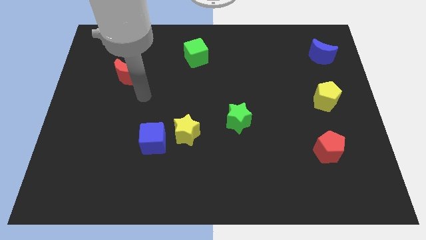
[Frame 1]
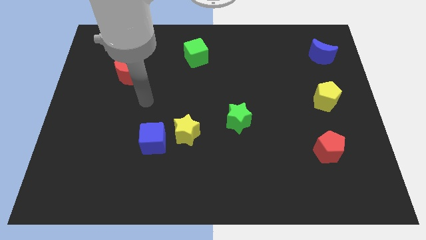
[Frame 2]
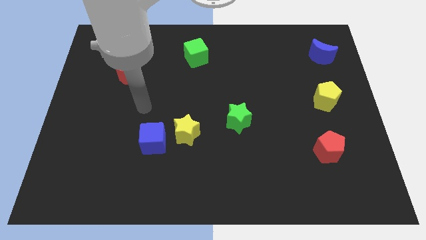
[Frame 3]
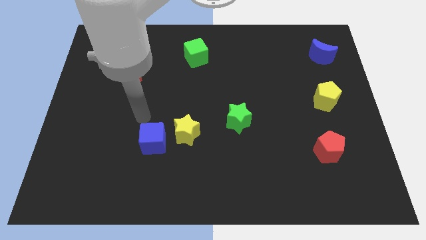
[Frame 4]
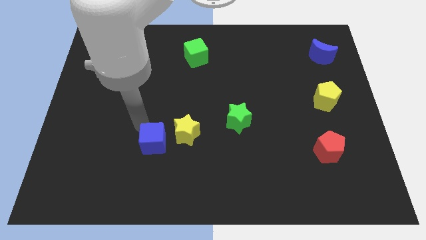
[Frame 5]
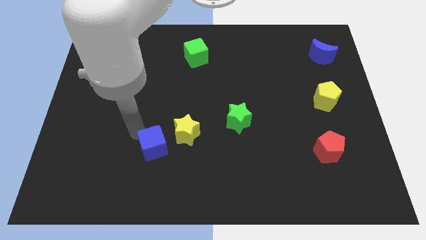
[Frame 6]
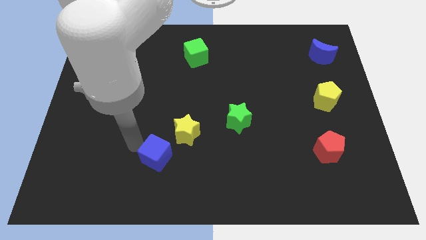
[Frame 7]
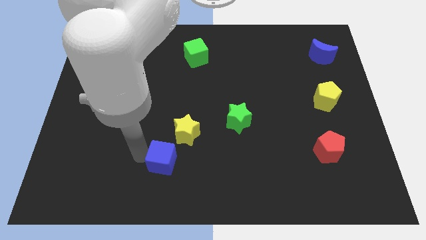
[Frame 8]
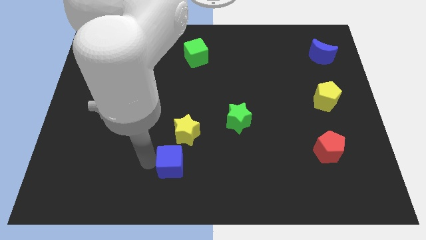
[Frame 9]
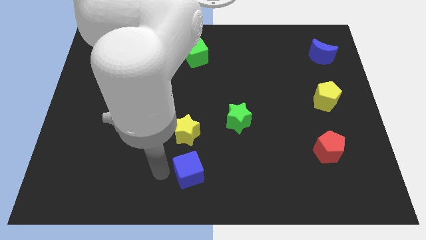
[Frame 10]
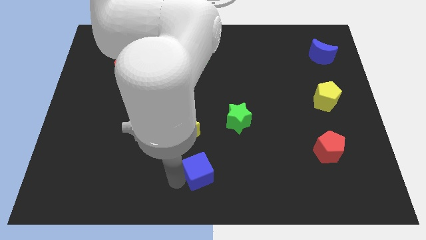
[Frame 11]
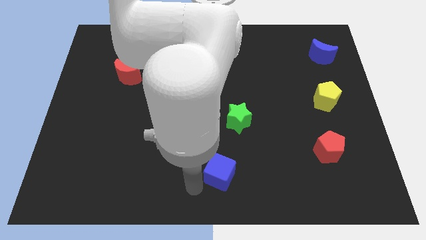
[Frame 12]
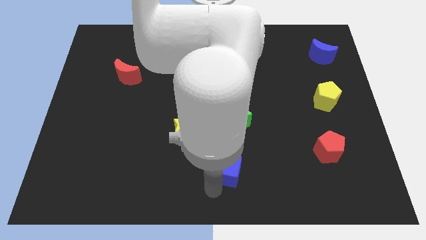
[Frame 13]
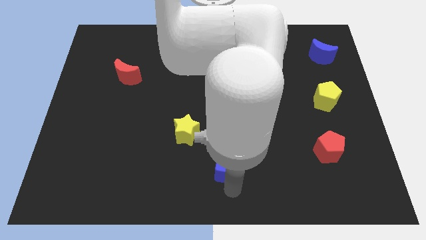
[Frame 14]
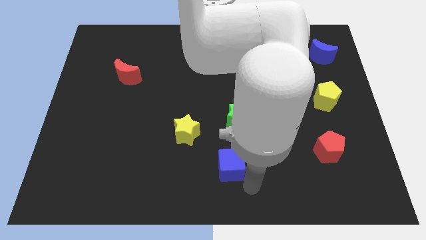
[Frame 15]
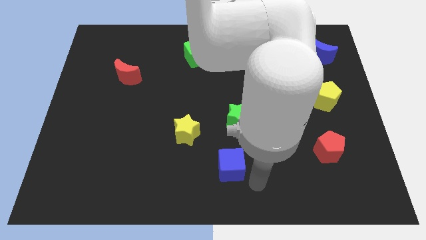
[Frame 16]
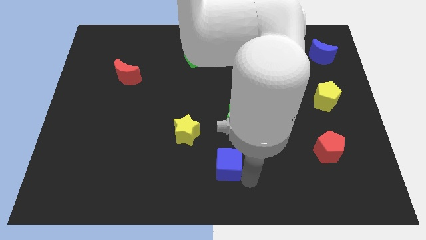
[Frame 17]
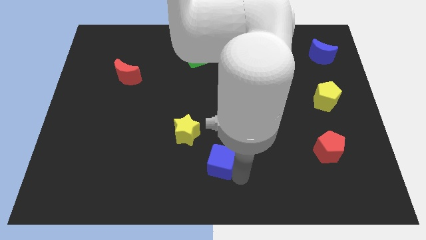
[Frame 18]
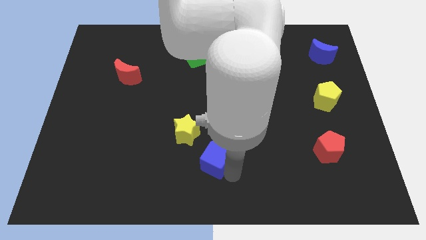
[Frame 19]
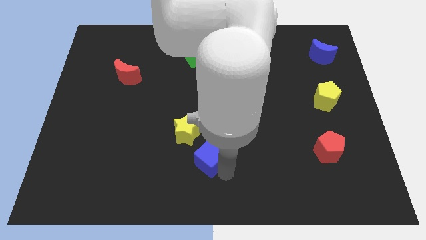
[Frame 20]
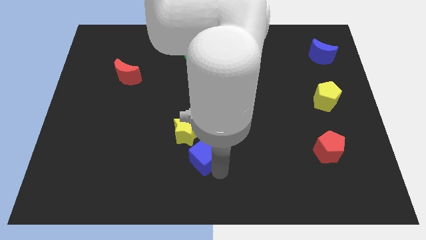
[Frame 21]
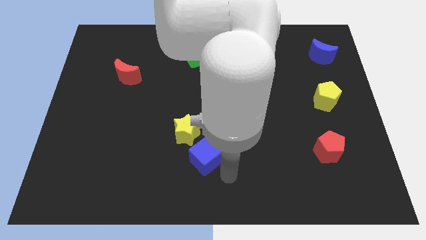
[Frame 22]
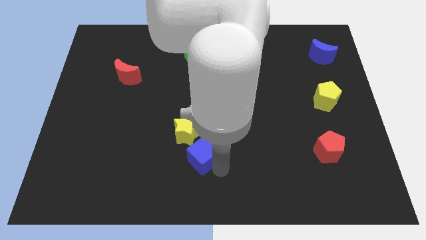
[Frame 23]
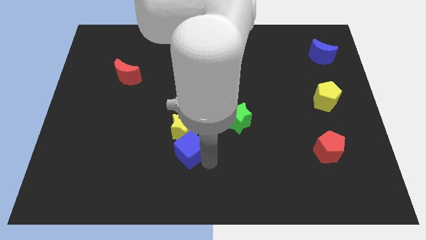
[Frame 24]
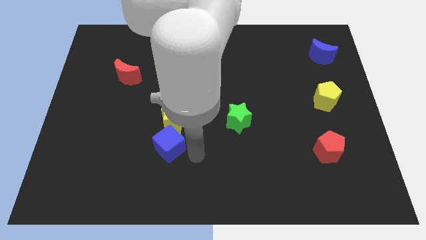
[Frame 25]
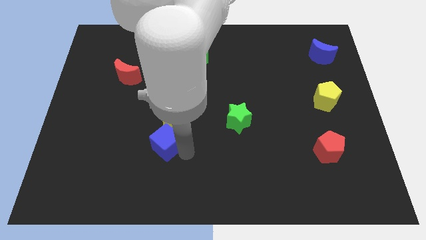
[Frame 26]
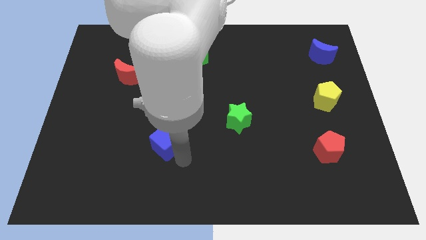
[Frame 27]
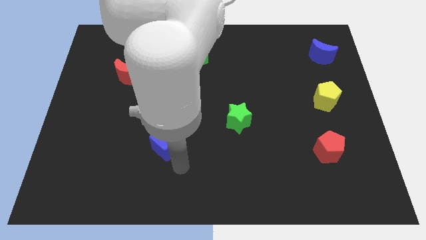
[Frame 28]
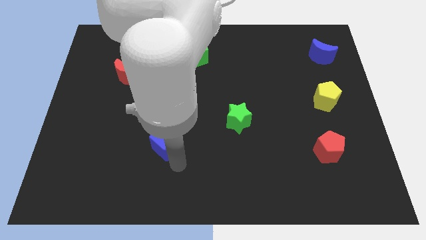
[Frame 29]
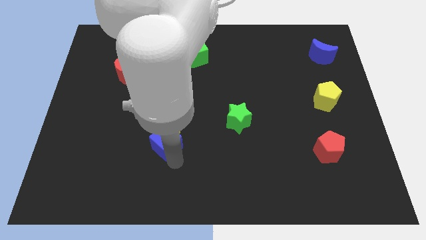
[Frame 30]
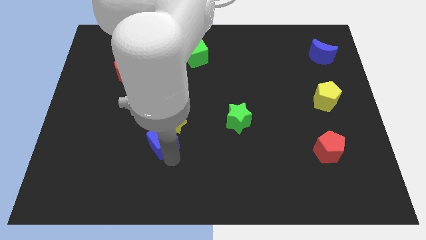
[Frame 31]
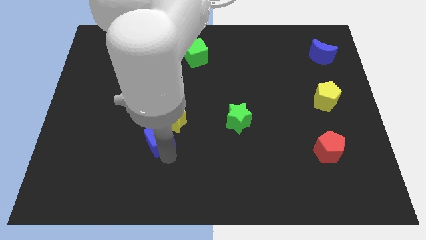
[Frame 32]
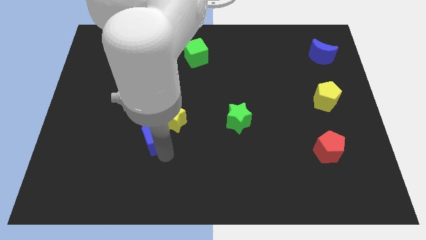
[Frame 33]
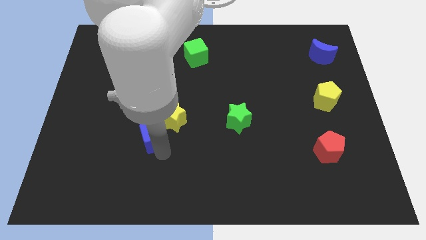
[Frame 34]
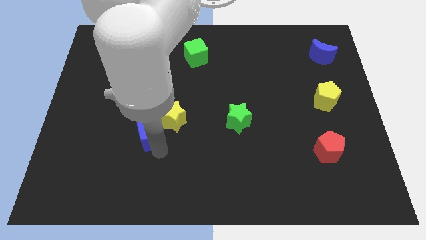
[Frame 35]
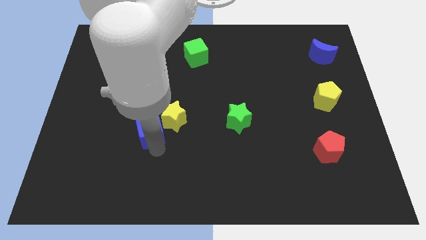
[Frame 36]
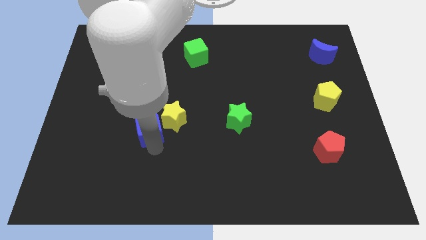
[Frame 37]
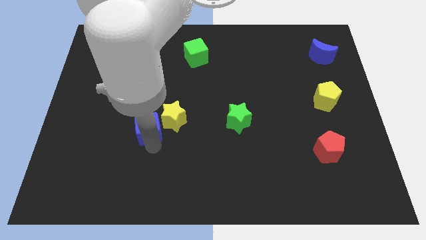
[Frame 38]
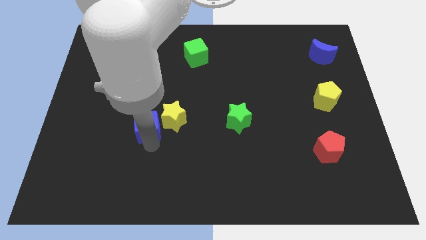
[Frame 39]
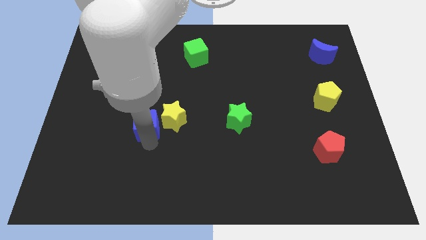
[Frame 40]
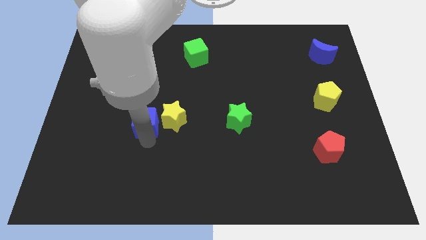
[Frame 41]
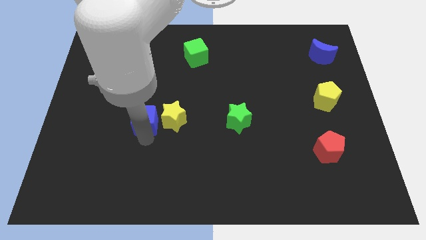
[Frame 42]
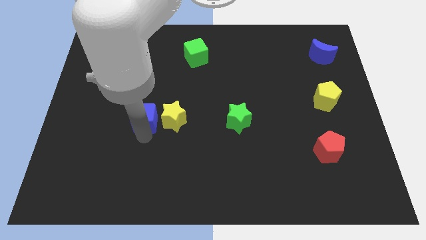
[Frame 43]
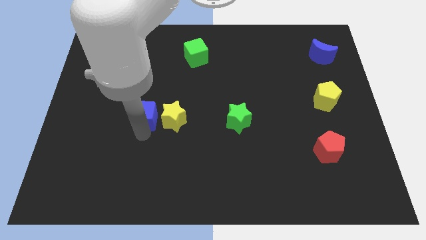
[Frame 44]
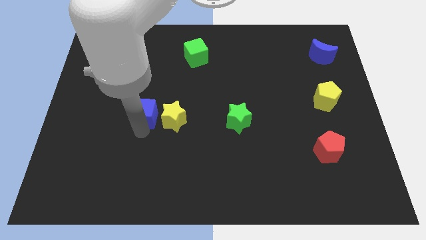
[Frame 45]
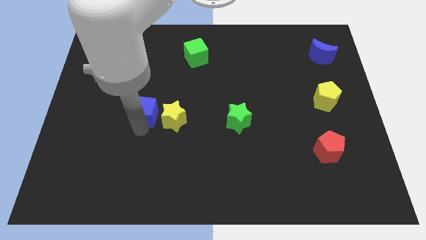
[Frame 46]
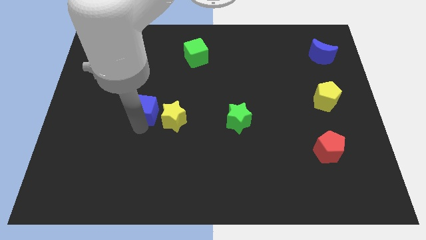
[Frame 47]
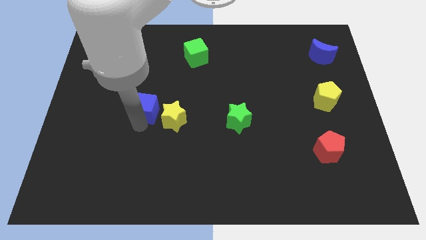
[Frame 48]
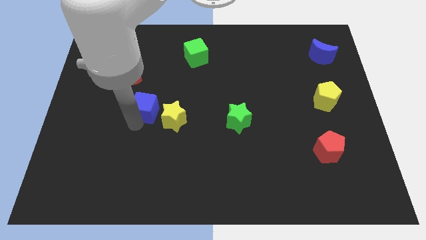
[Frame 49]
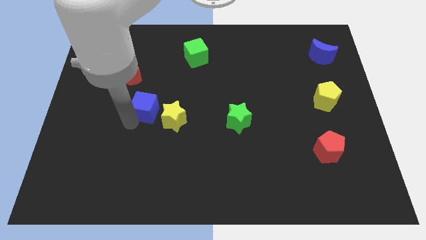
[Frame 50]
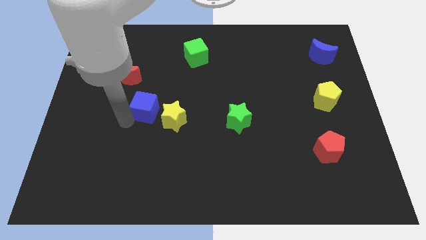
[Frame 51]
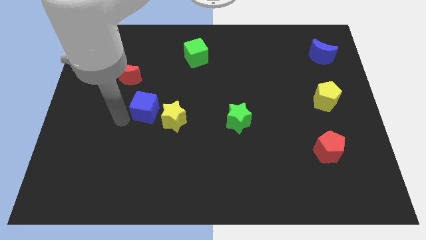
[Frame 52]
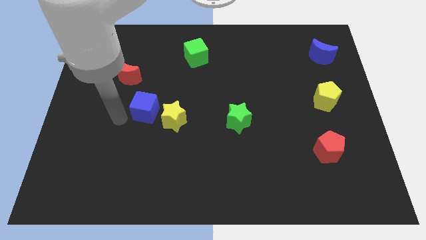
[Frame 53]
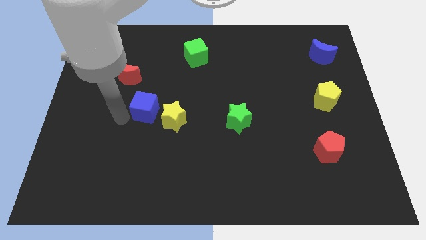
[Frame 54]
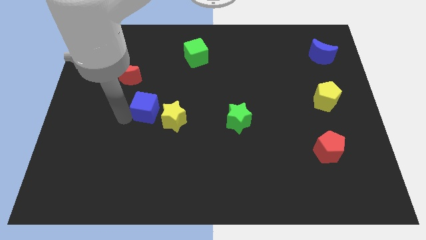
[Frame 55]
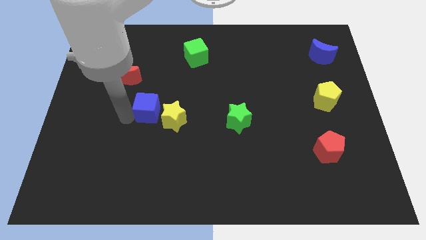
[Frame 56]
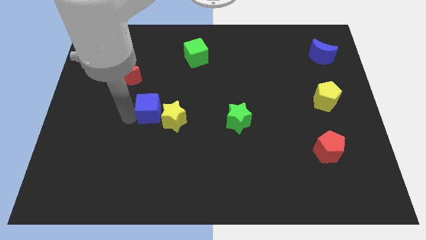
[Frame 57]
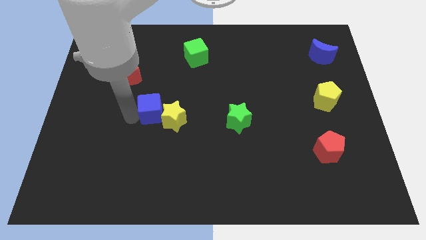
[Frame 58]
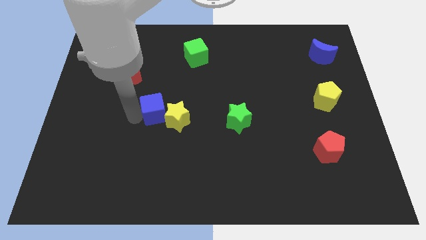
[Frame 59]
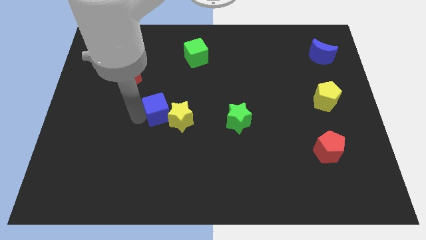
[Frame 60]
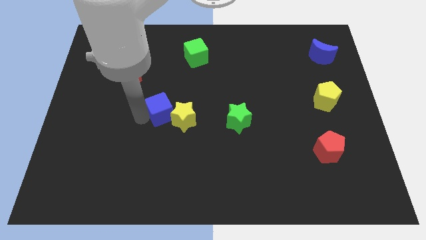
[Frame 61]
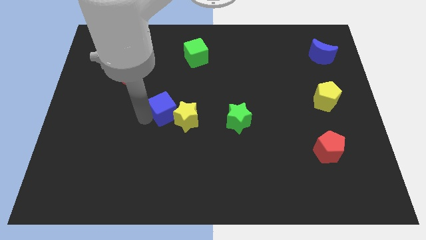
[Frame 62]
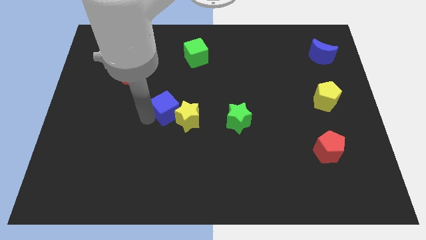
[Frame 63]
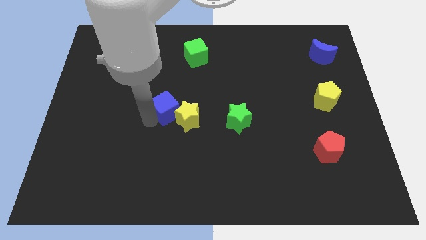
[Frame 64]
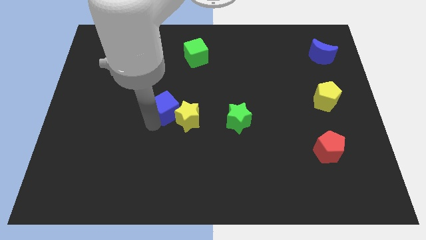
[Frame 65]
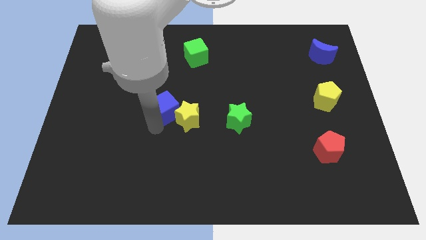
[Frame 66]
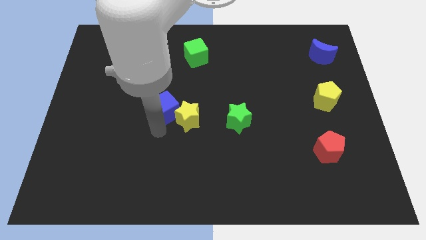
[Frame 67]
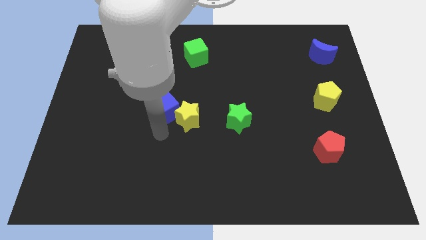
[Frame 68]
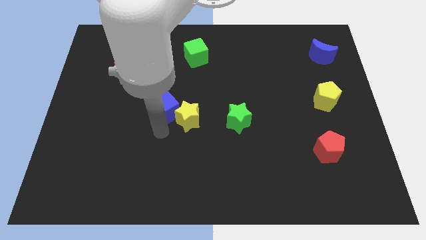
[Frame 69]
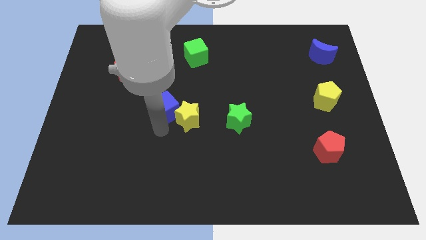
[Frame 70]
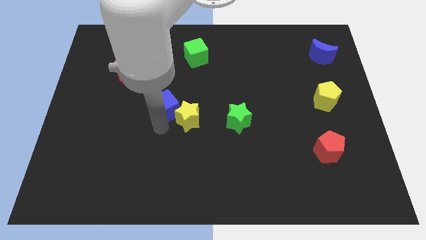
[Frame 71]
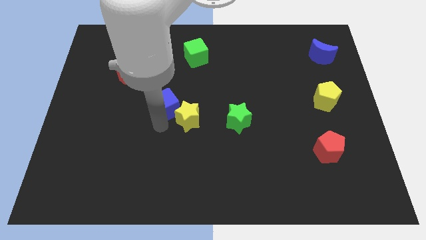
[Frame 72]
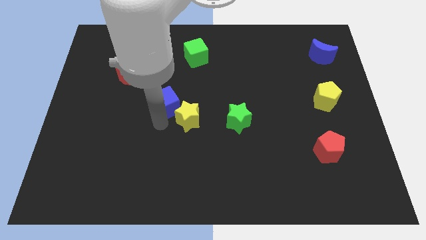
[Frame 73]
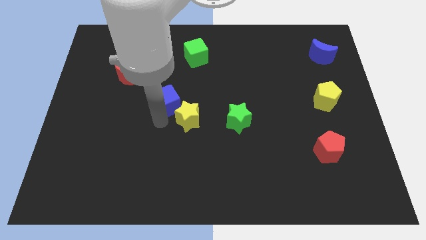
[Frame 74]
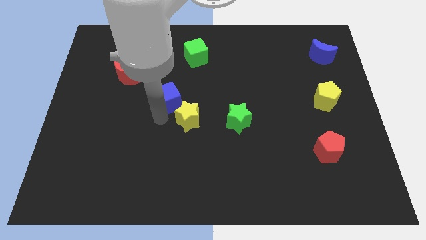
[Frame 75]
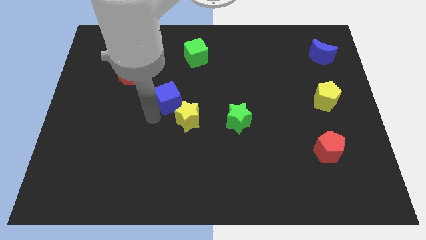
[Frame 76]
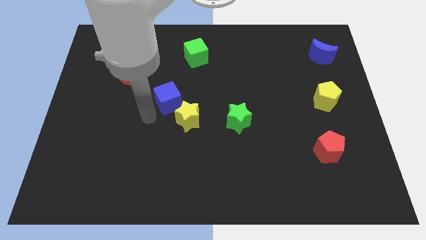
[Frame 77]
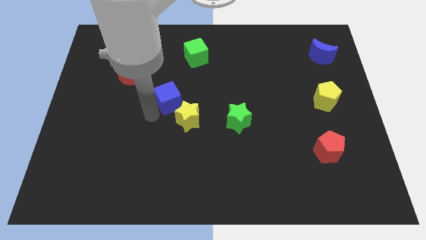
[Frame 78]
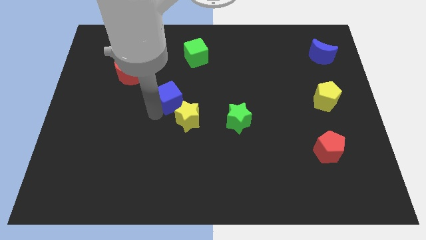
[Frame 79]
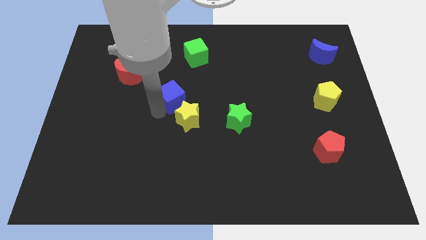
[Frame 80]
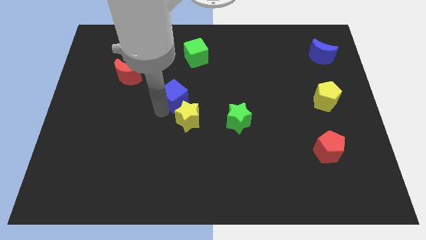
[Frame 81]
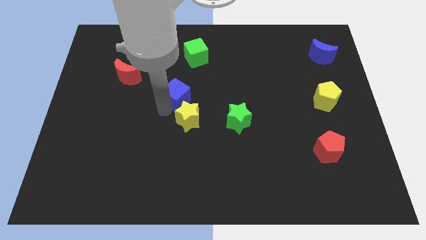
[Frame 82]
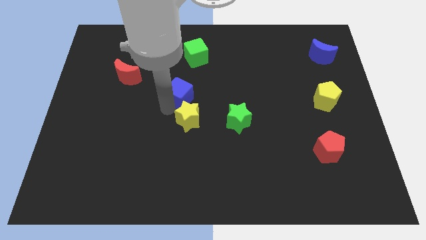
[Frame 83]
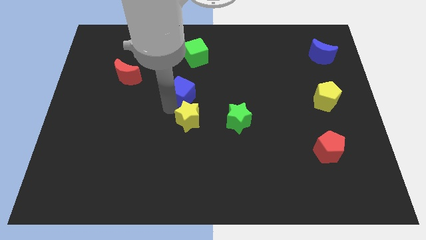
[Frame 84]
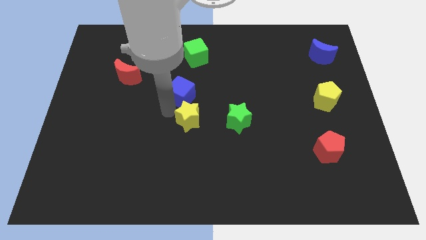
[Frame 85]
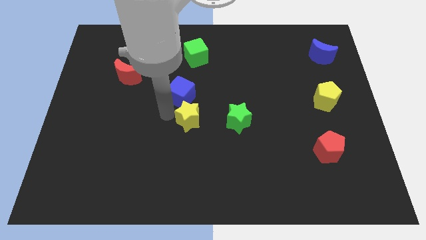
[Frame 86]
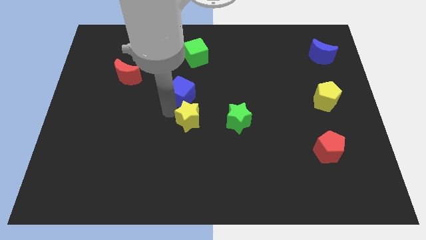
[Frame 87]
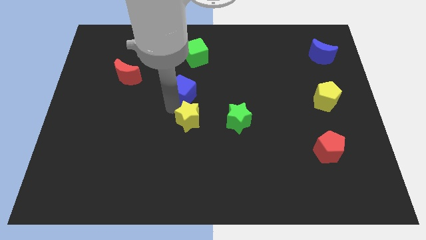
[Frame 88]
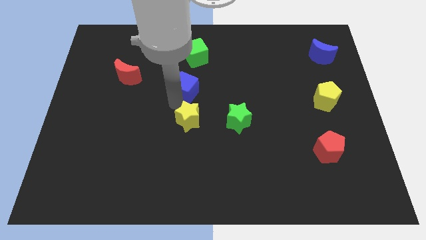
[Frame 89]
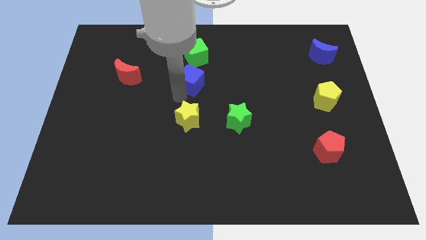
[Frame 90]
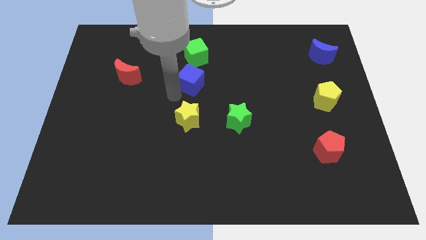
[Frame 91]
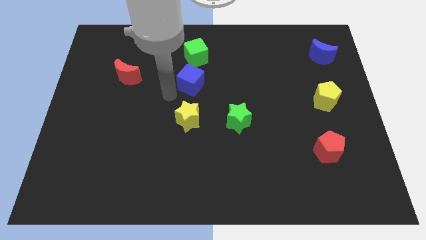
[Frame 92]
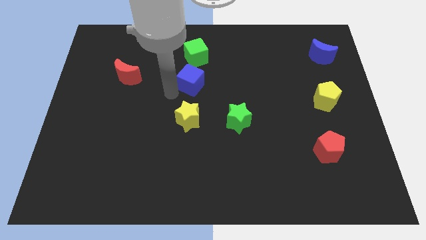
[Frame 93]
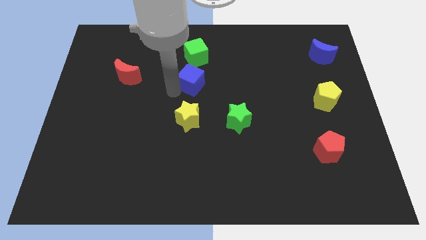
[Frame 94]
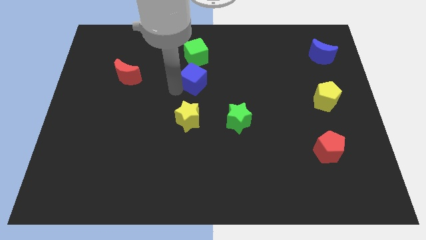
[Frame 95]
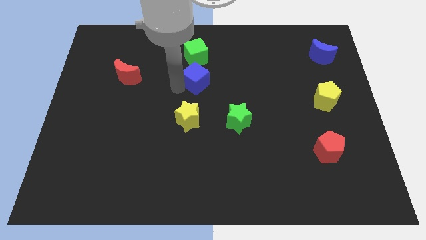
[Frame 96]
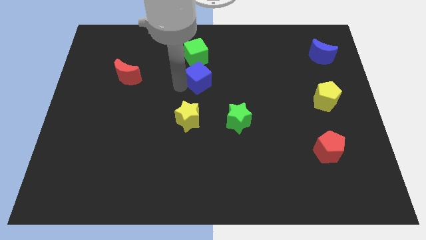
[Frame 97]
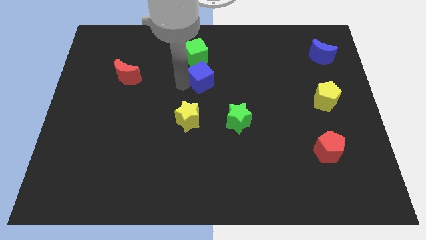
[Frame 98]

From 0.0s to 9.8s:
move the blue cube to the bottom right of the green cube
